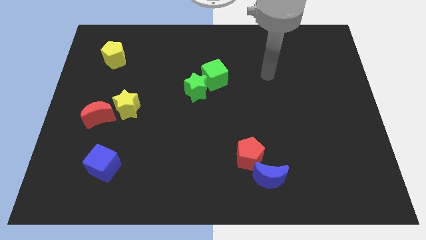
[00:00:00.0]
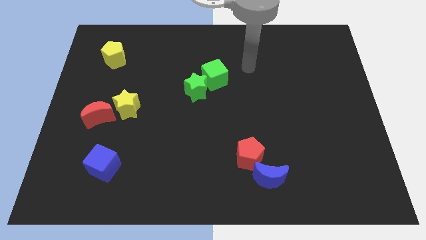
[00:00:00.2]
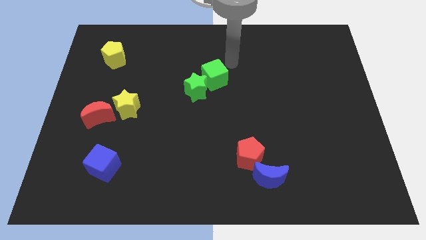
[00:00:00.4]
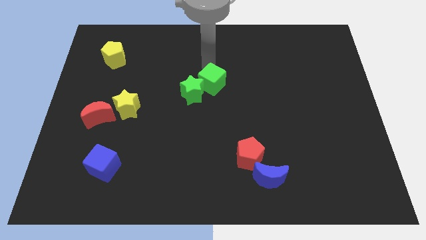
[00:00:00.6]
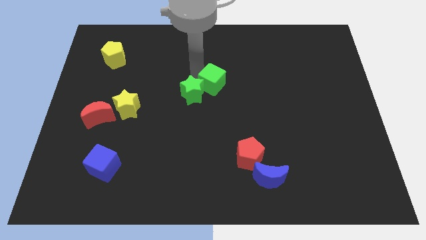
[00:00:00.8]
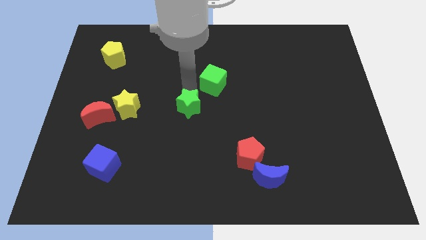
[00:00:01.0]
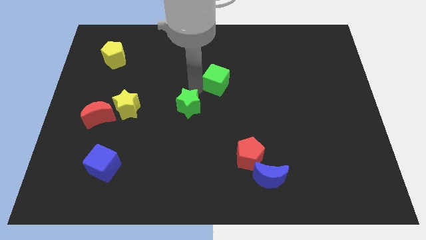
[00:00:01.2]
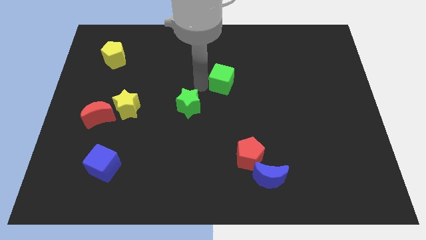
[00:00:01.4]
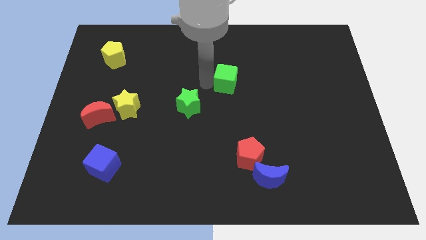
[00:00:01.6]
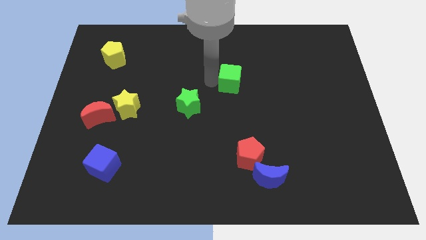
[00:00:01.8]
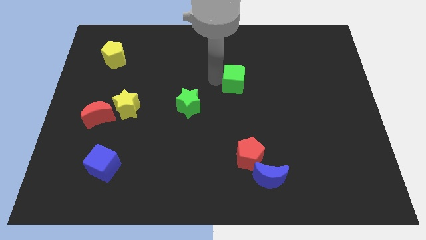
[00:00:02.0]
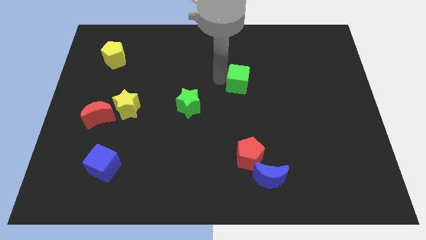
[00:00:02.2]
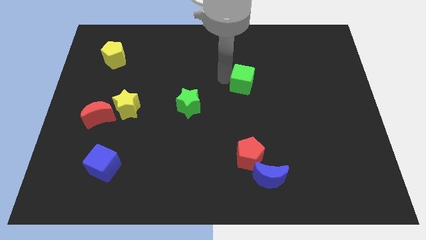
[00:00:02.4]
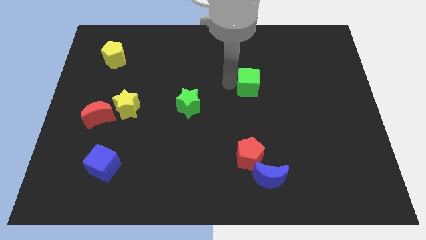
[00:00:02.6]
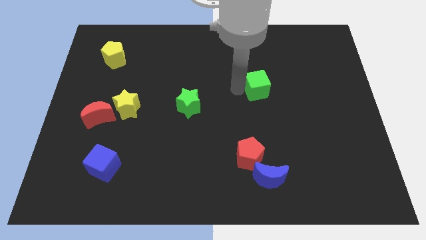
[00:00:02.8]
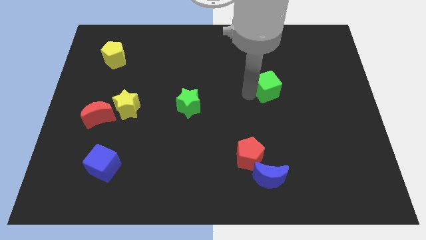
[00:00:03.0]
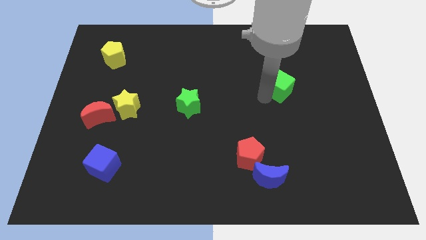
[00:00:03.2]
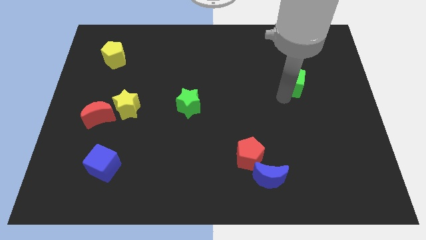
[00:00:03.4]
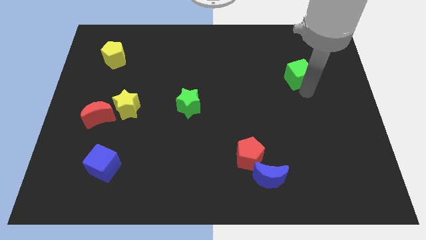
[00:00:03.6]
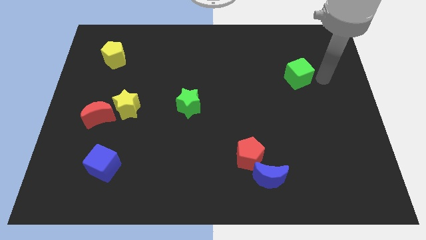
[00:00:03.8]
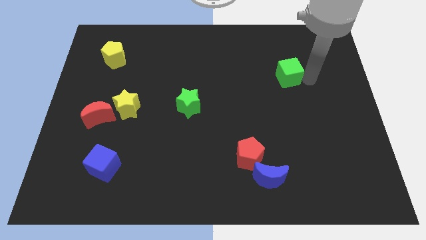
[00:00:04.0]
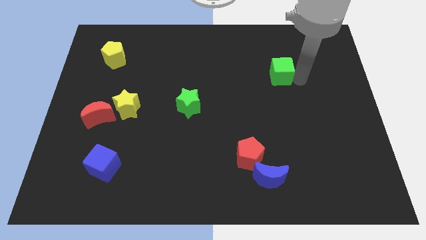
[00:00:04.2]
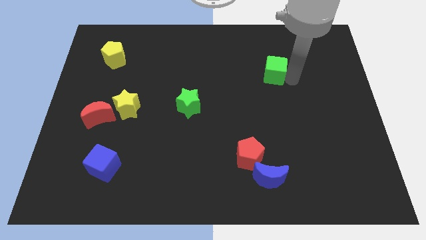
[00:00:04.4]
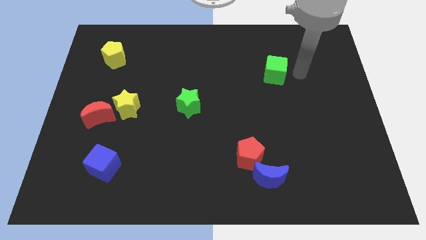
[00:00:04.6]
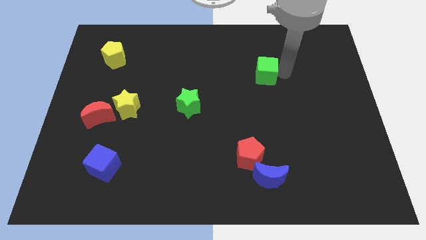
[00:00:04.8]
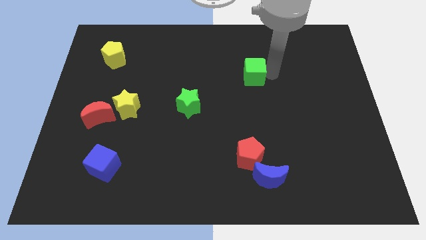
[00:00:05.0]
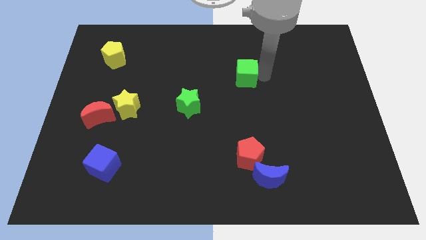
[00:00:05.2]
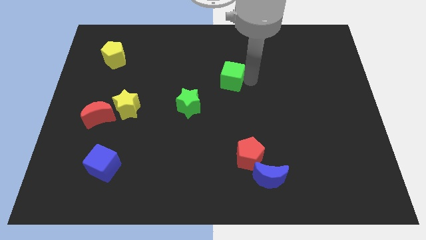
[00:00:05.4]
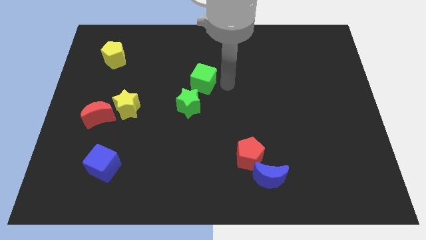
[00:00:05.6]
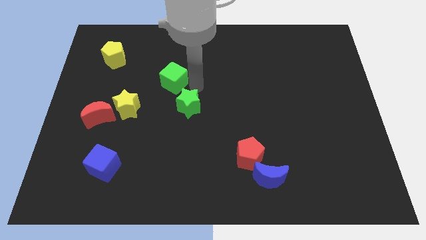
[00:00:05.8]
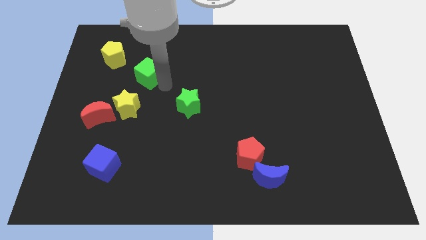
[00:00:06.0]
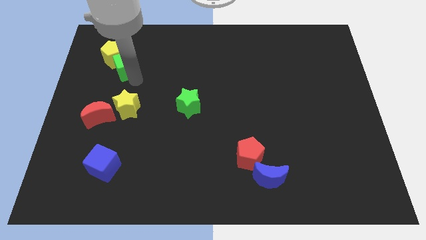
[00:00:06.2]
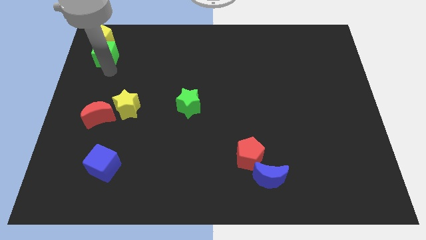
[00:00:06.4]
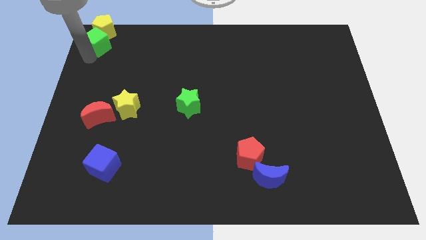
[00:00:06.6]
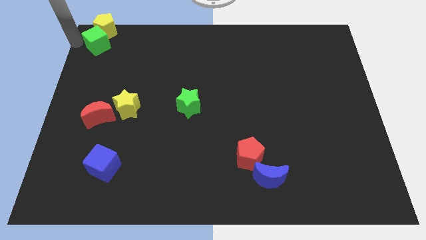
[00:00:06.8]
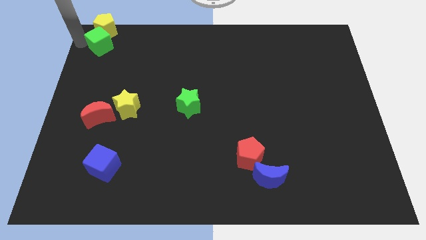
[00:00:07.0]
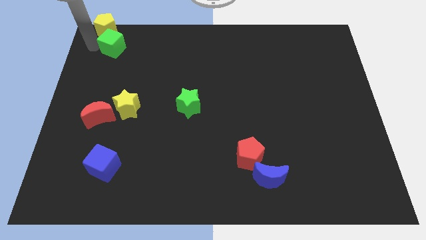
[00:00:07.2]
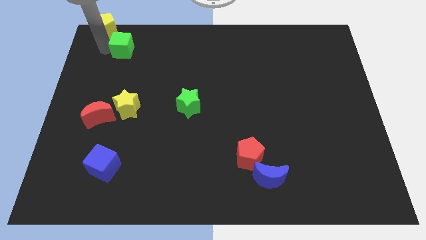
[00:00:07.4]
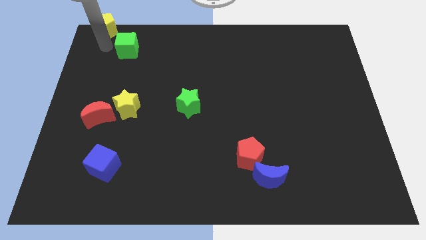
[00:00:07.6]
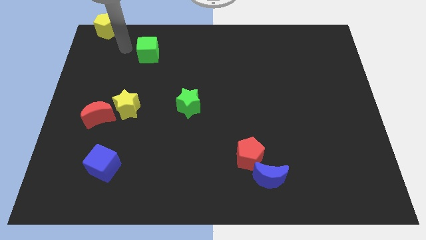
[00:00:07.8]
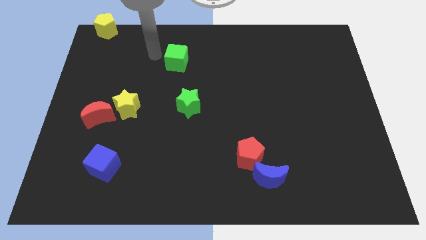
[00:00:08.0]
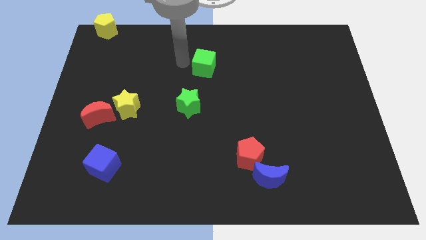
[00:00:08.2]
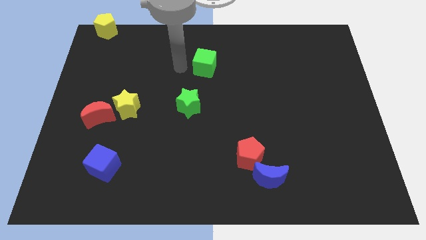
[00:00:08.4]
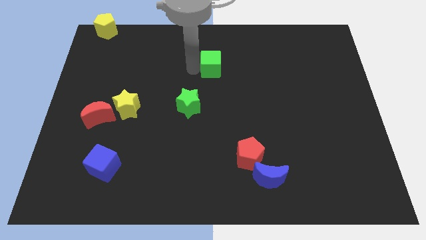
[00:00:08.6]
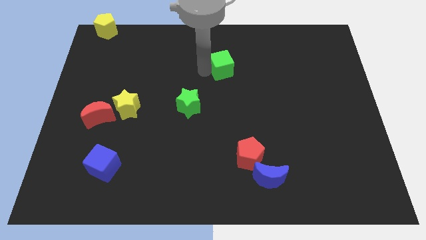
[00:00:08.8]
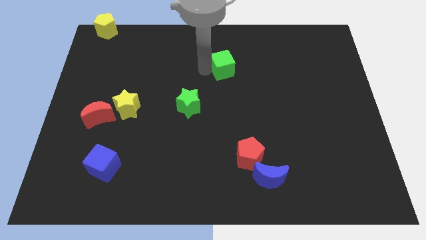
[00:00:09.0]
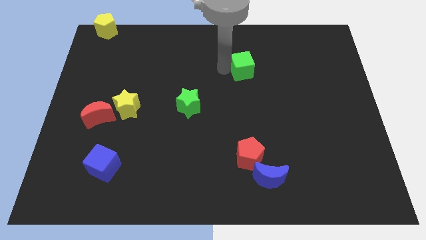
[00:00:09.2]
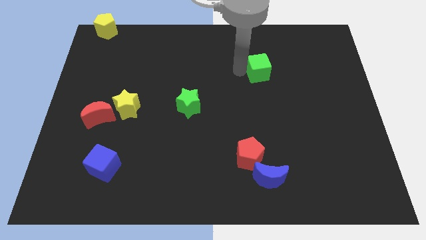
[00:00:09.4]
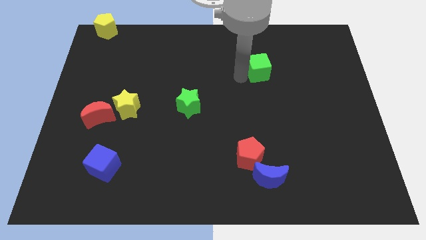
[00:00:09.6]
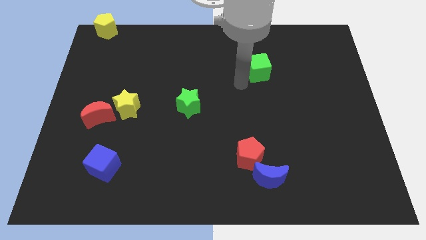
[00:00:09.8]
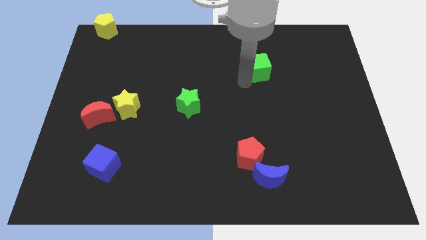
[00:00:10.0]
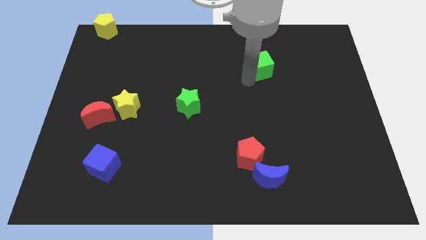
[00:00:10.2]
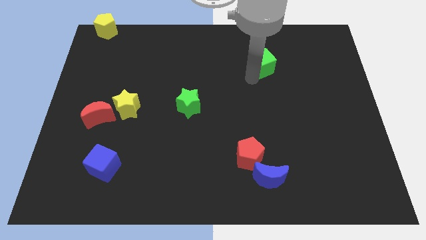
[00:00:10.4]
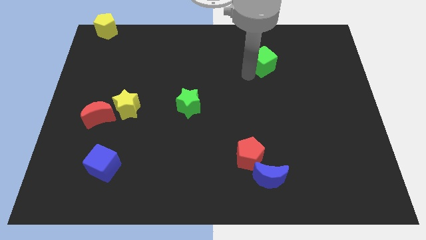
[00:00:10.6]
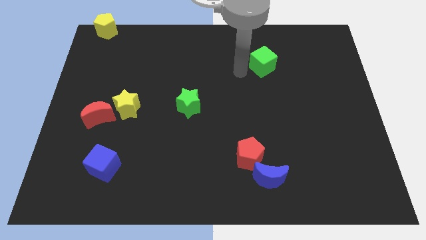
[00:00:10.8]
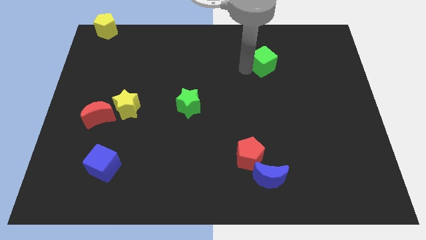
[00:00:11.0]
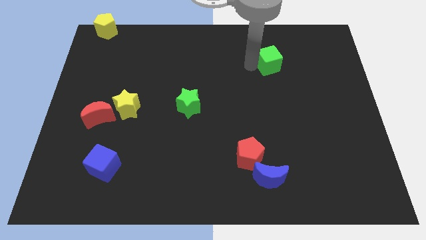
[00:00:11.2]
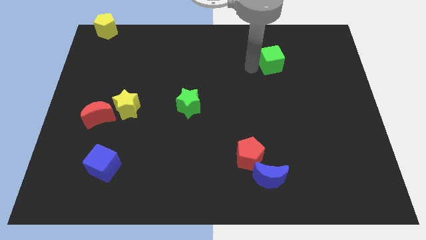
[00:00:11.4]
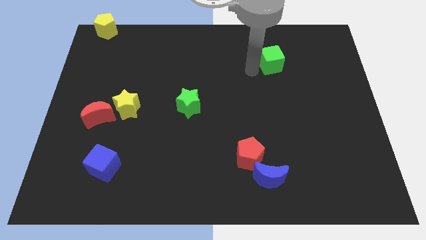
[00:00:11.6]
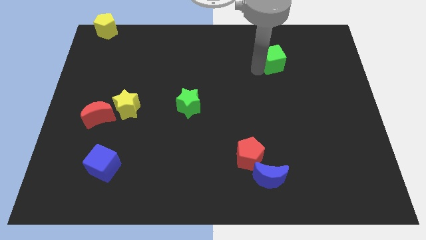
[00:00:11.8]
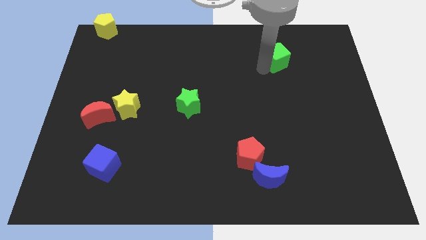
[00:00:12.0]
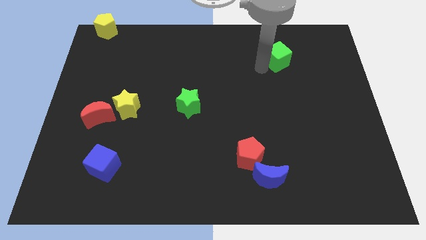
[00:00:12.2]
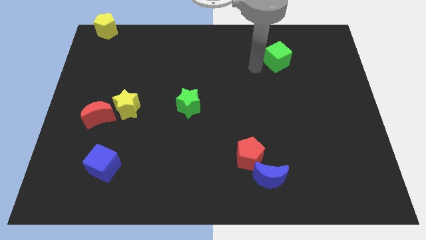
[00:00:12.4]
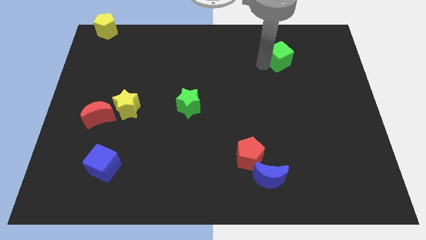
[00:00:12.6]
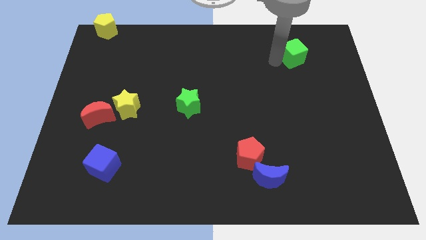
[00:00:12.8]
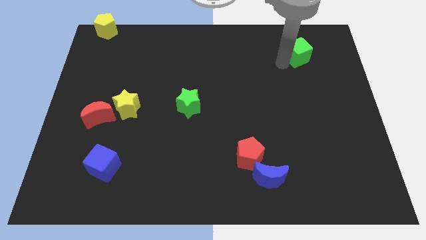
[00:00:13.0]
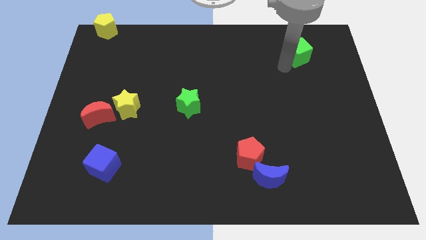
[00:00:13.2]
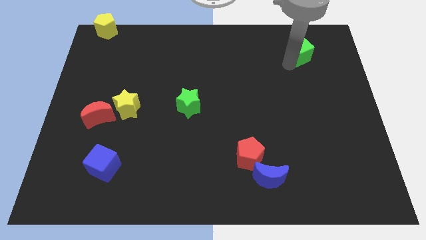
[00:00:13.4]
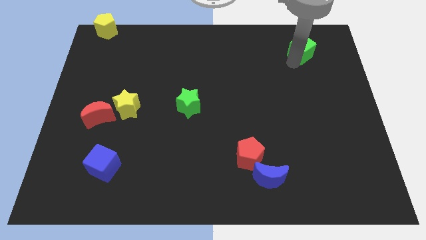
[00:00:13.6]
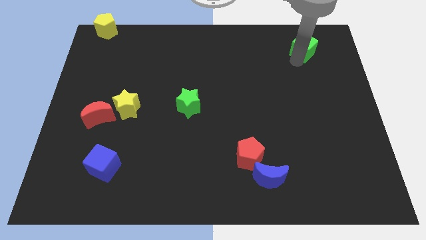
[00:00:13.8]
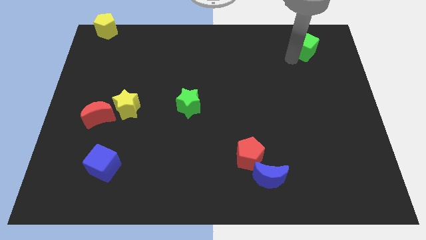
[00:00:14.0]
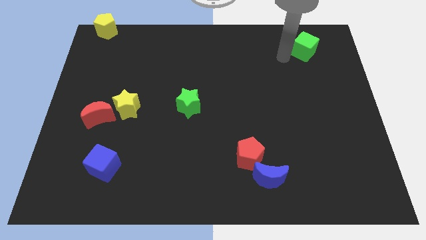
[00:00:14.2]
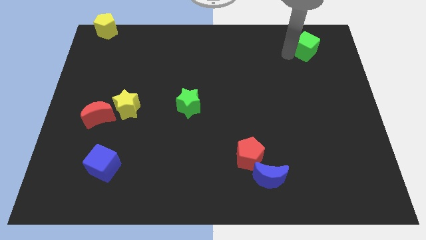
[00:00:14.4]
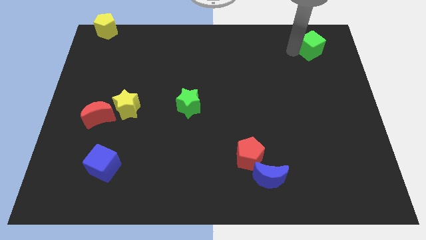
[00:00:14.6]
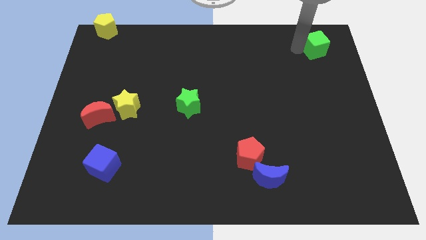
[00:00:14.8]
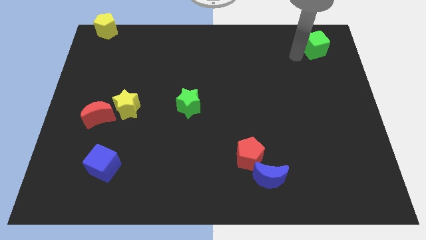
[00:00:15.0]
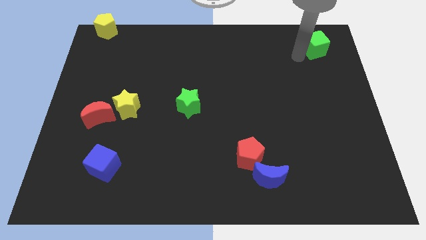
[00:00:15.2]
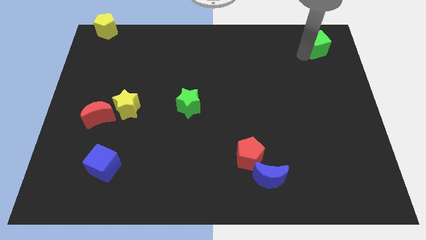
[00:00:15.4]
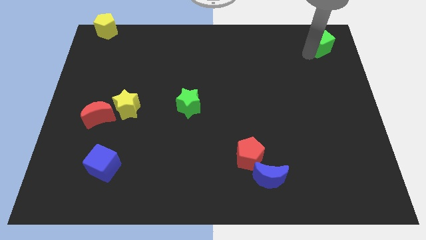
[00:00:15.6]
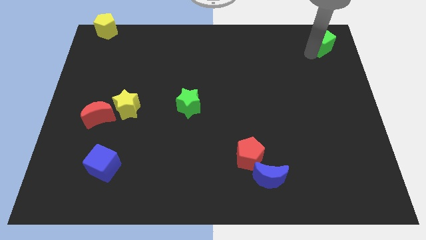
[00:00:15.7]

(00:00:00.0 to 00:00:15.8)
move the green cube to the top right
